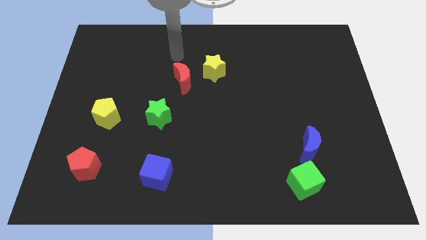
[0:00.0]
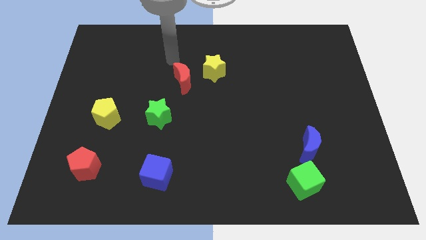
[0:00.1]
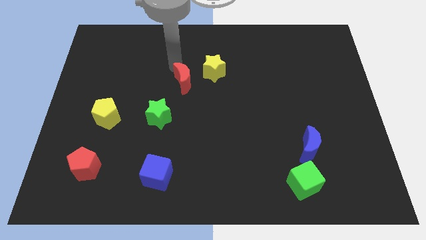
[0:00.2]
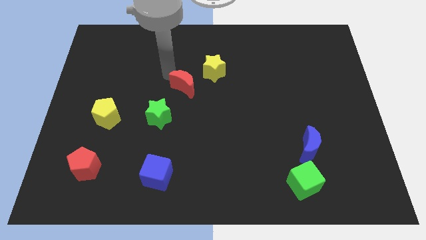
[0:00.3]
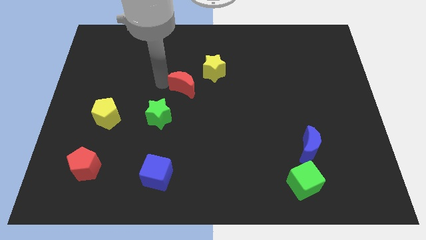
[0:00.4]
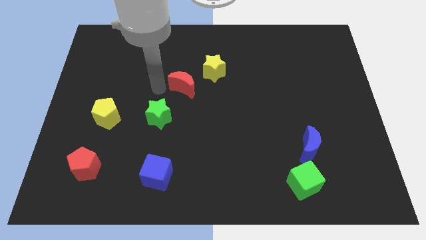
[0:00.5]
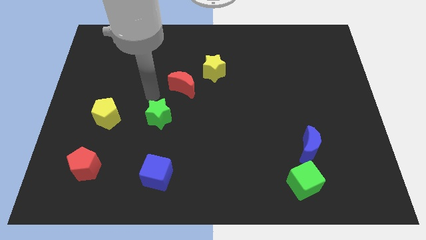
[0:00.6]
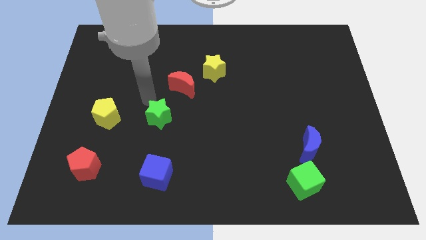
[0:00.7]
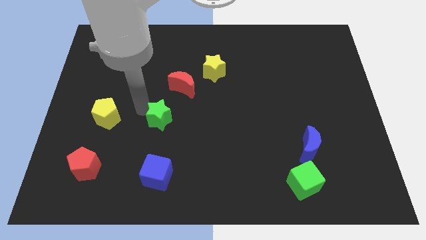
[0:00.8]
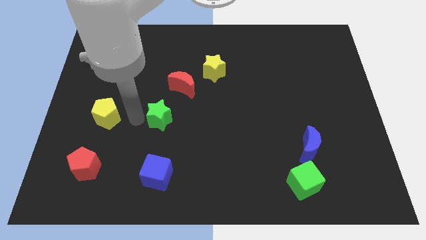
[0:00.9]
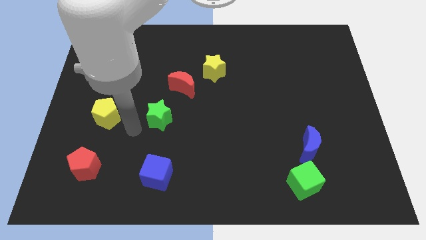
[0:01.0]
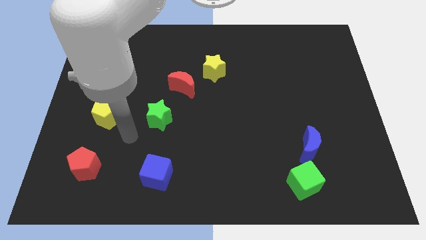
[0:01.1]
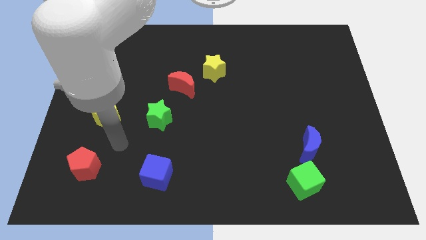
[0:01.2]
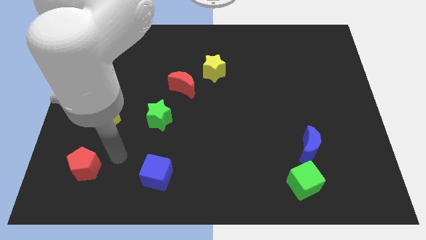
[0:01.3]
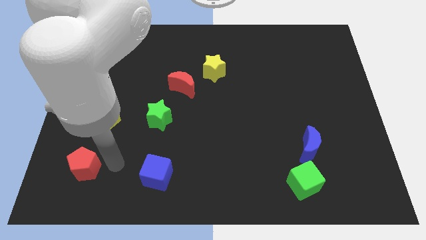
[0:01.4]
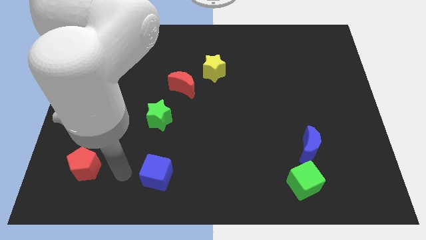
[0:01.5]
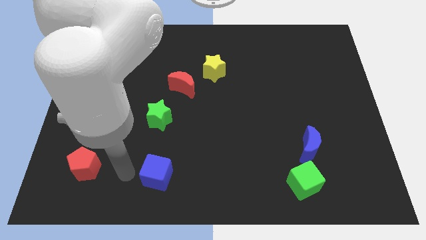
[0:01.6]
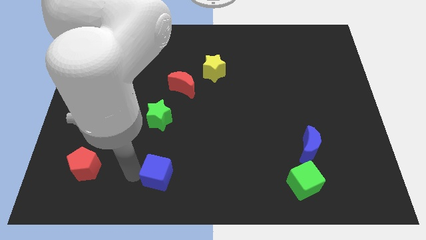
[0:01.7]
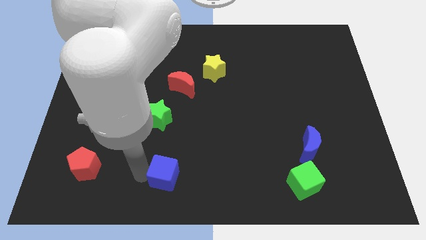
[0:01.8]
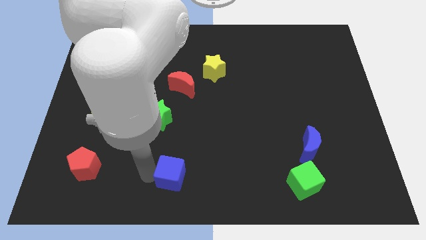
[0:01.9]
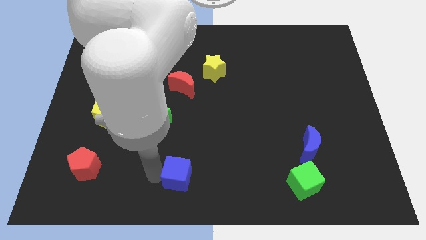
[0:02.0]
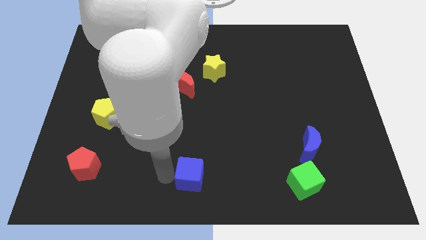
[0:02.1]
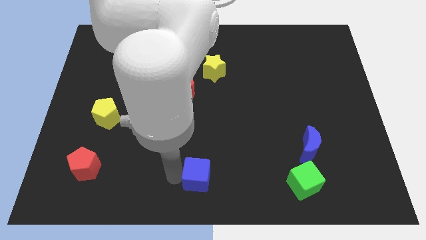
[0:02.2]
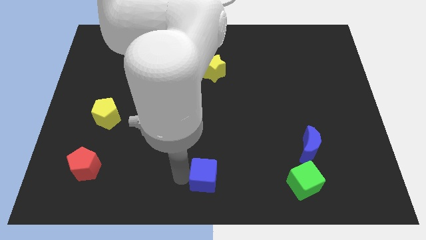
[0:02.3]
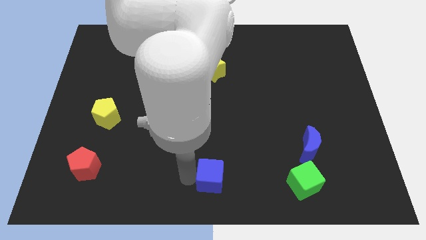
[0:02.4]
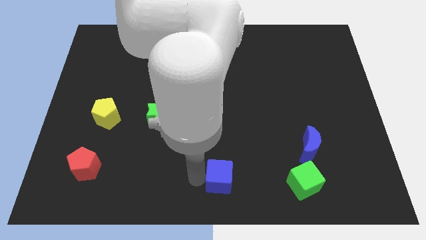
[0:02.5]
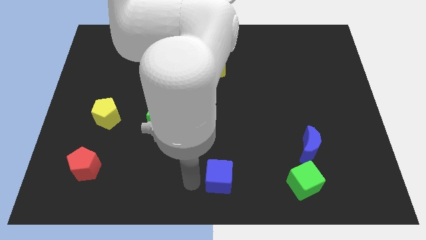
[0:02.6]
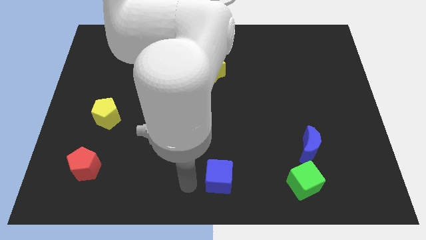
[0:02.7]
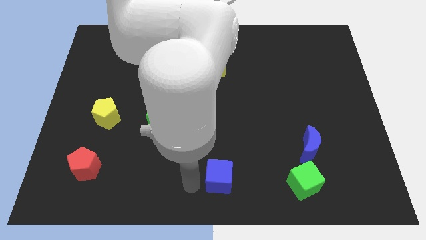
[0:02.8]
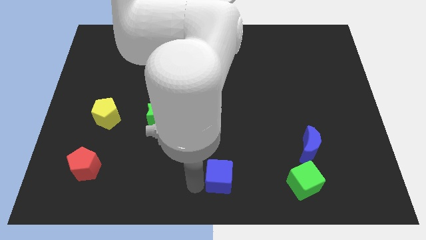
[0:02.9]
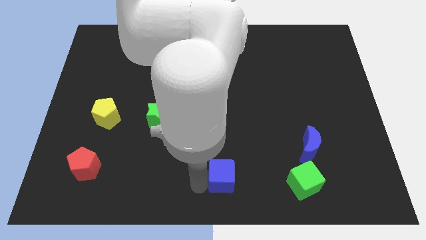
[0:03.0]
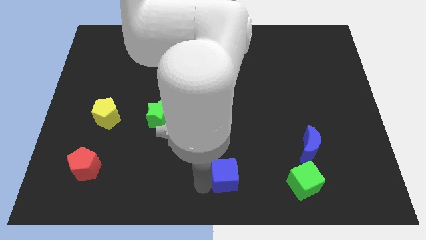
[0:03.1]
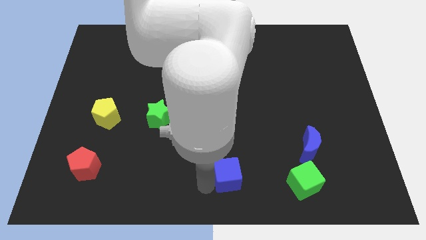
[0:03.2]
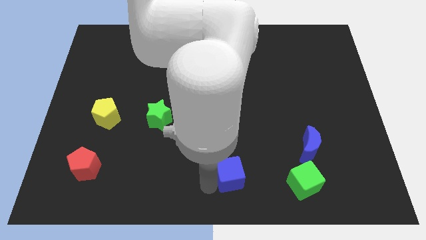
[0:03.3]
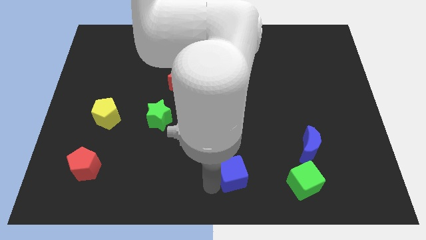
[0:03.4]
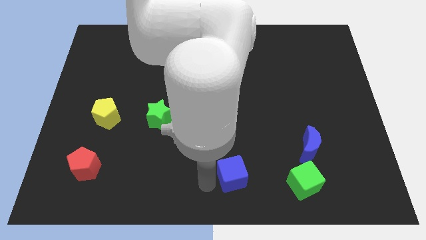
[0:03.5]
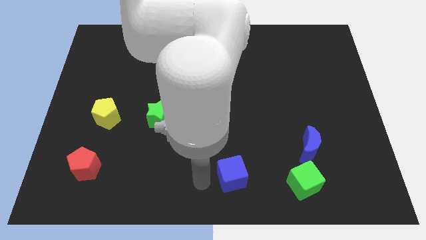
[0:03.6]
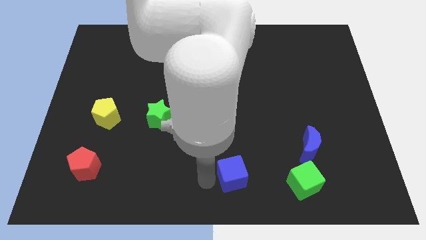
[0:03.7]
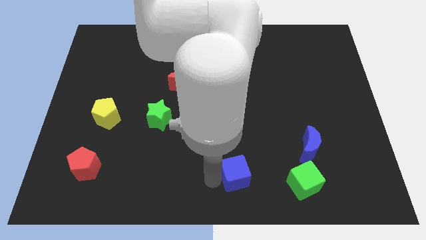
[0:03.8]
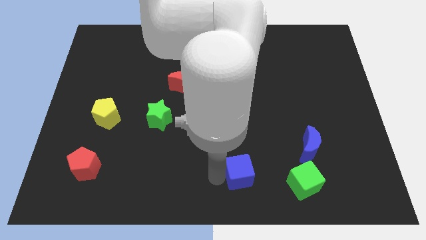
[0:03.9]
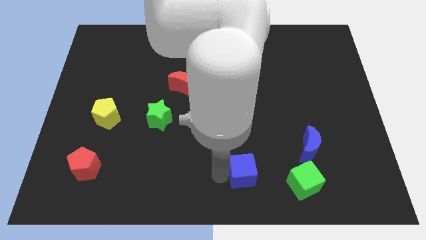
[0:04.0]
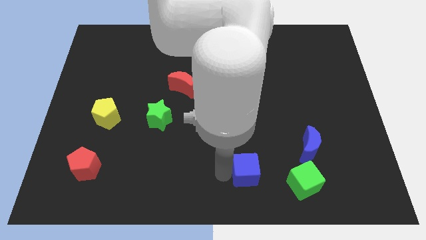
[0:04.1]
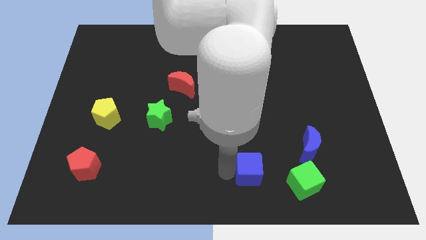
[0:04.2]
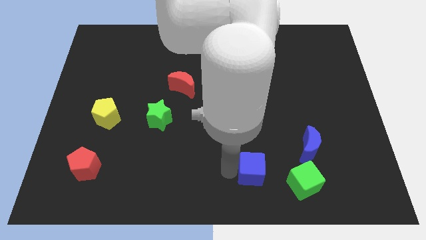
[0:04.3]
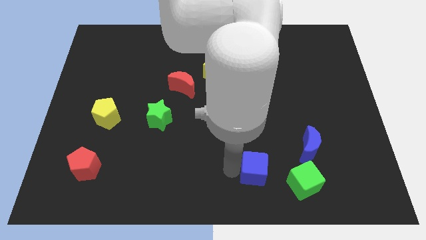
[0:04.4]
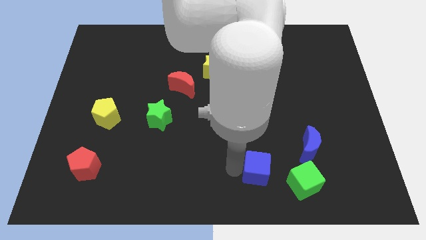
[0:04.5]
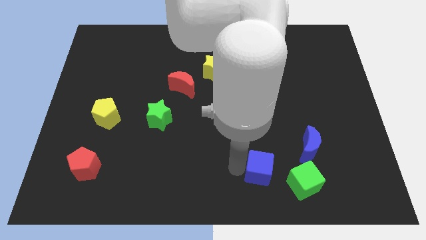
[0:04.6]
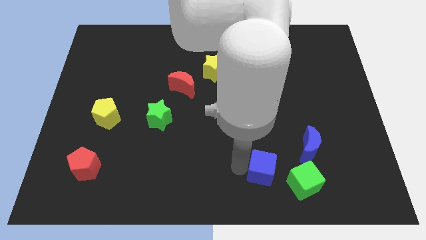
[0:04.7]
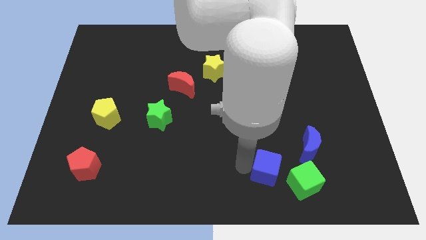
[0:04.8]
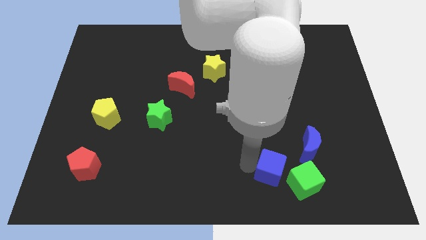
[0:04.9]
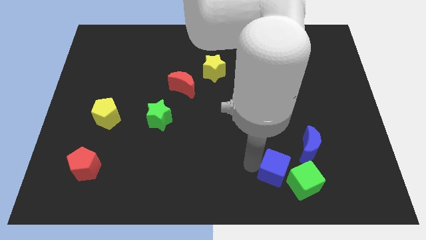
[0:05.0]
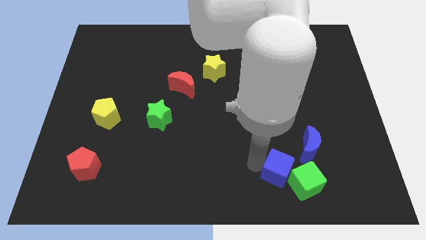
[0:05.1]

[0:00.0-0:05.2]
push the blue cube to the green cube

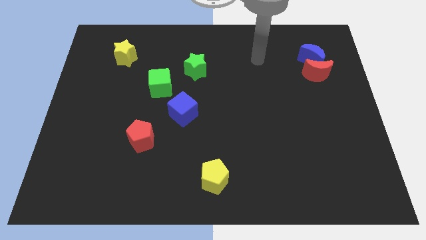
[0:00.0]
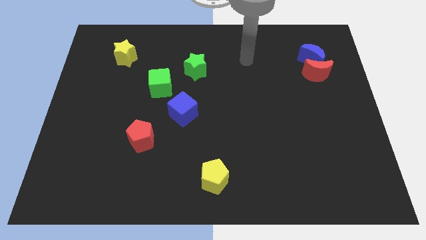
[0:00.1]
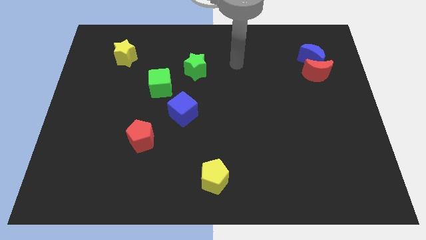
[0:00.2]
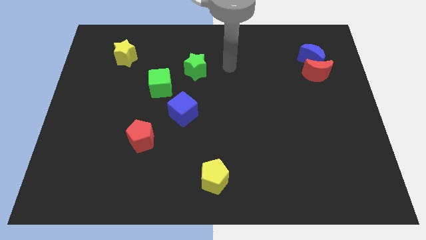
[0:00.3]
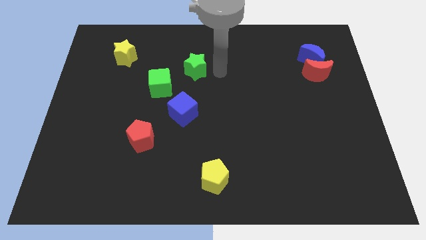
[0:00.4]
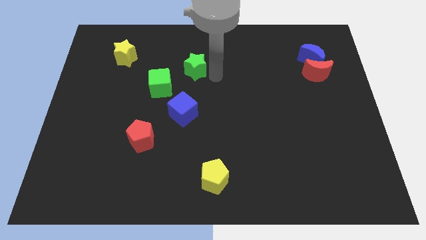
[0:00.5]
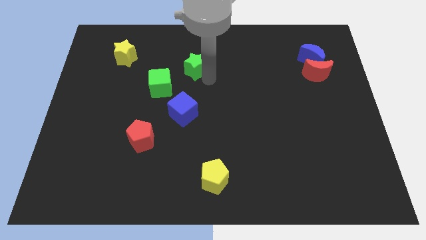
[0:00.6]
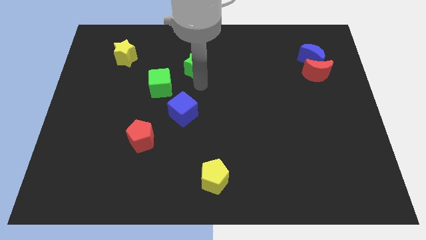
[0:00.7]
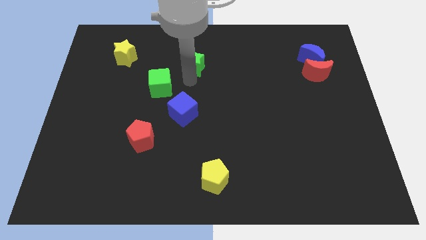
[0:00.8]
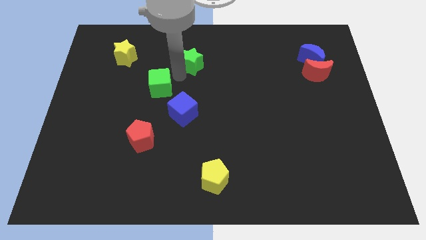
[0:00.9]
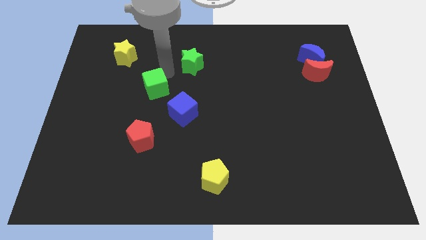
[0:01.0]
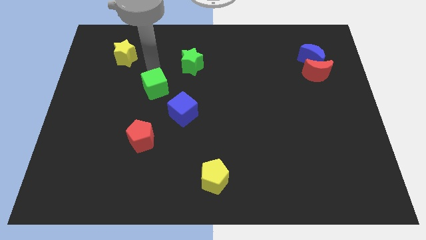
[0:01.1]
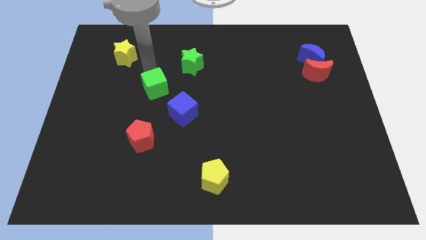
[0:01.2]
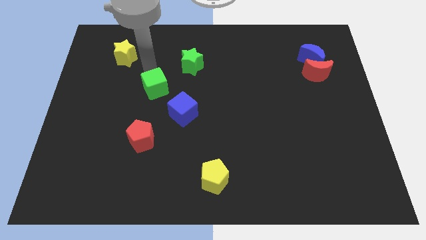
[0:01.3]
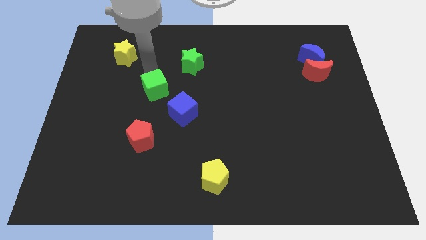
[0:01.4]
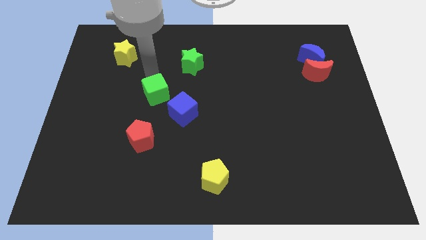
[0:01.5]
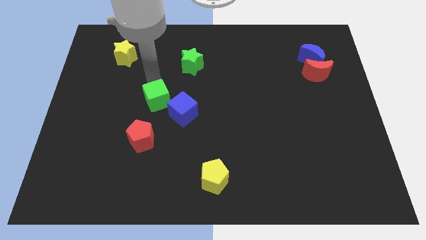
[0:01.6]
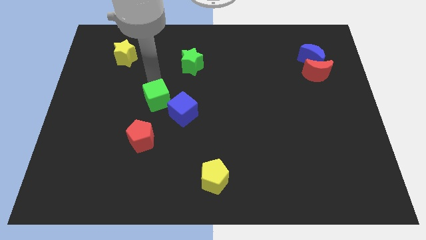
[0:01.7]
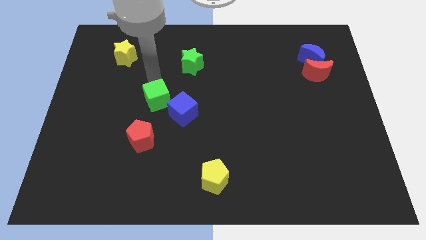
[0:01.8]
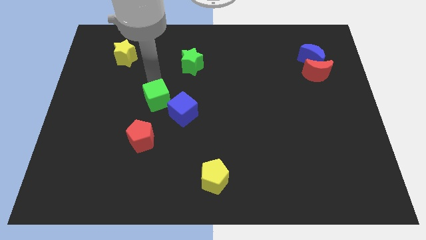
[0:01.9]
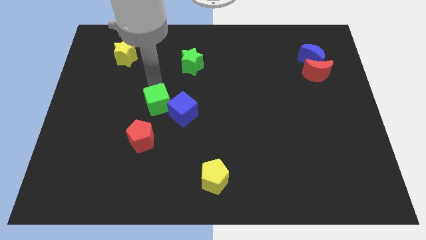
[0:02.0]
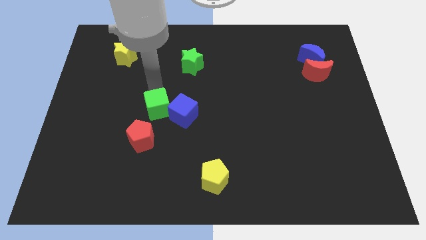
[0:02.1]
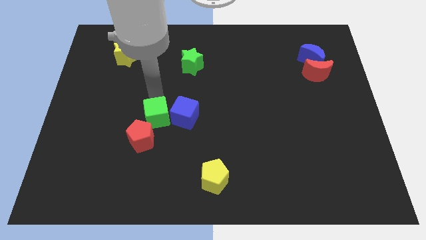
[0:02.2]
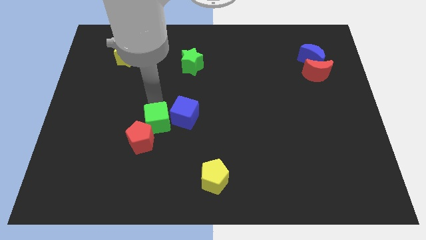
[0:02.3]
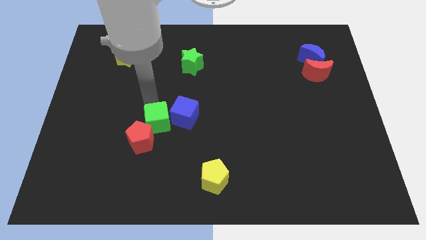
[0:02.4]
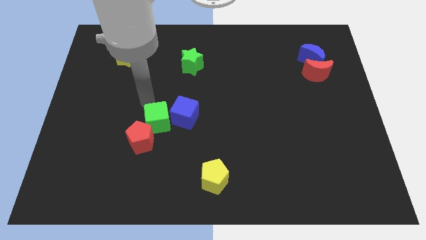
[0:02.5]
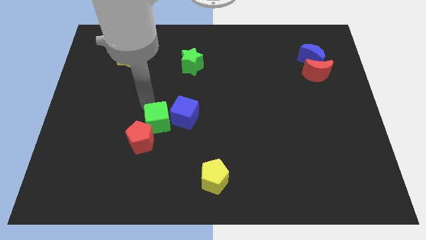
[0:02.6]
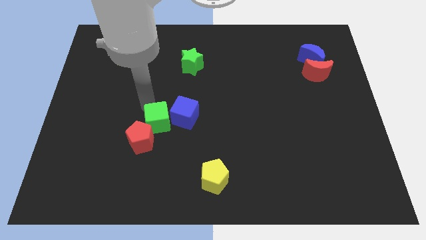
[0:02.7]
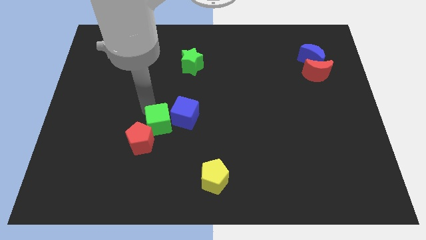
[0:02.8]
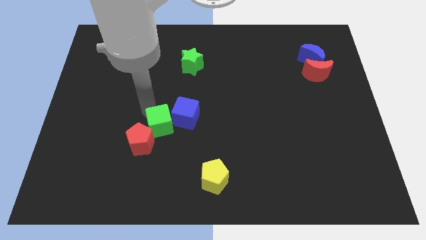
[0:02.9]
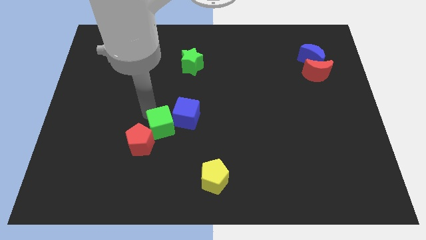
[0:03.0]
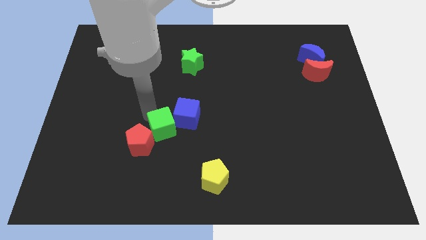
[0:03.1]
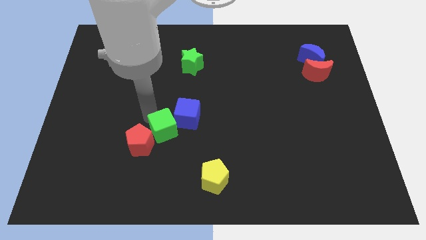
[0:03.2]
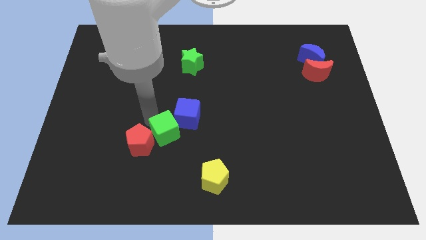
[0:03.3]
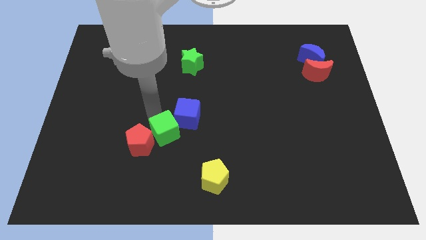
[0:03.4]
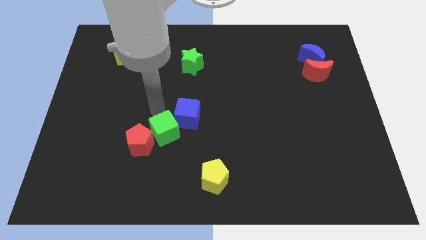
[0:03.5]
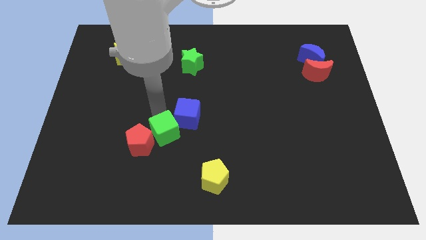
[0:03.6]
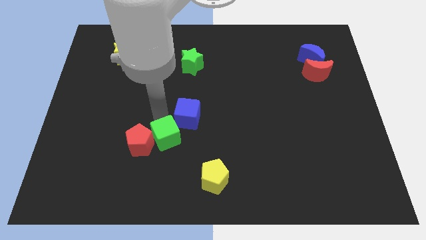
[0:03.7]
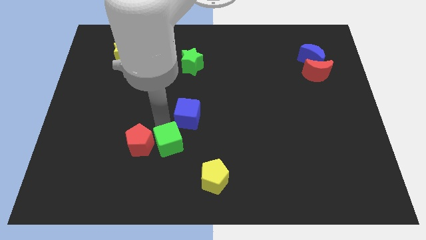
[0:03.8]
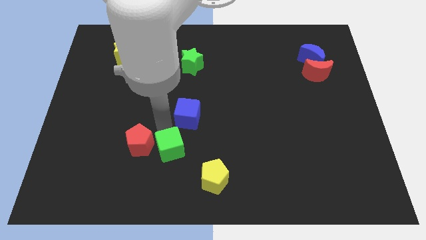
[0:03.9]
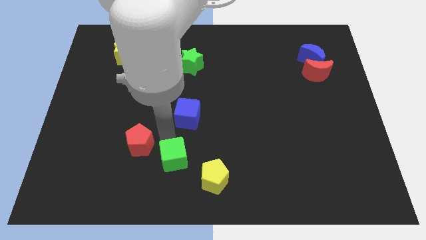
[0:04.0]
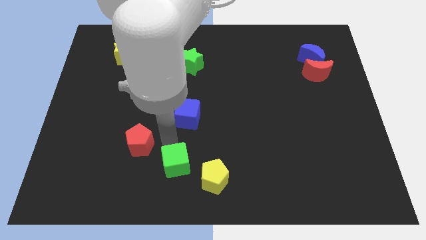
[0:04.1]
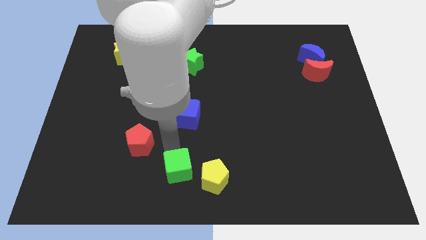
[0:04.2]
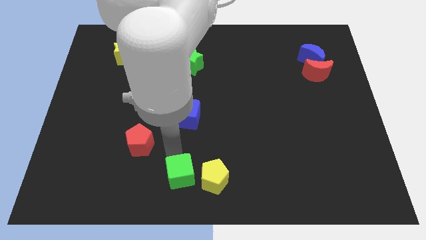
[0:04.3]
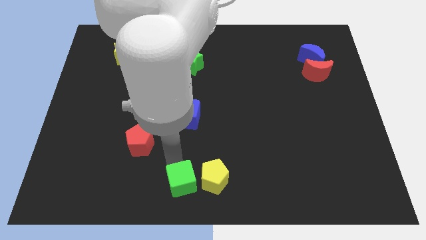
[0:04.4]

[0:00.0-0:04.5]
move the green cube towards the yellow pentagon
